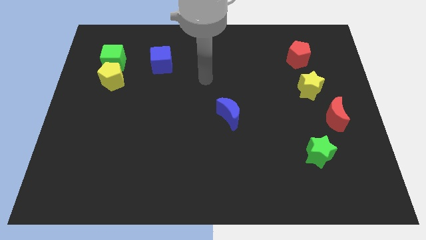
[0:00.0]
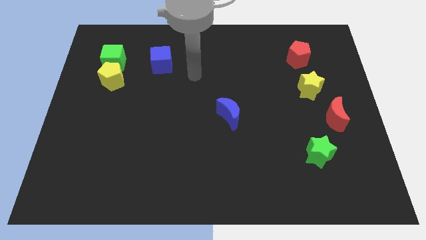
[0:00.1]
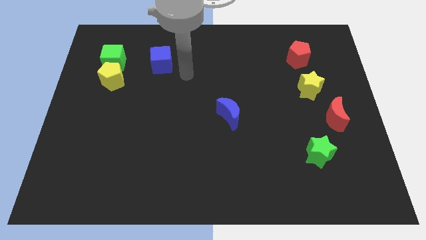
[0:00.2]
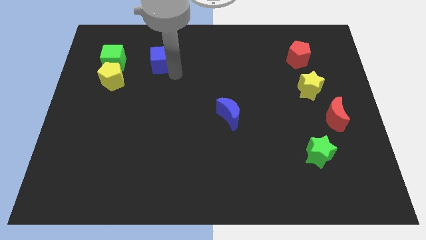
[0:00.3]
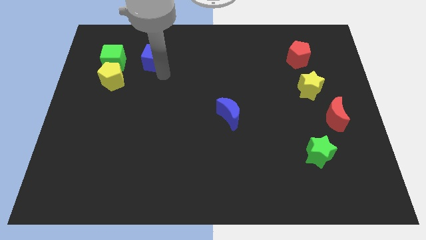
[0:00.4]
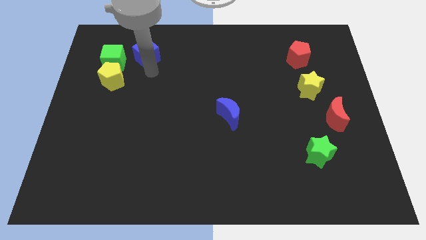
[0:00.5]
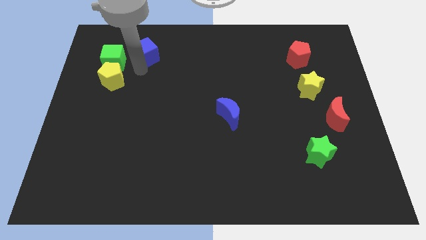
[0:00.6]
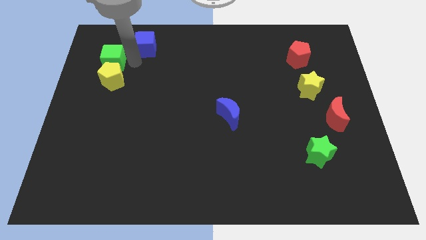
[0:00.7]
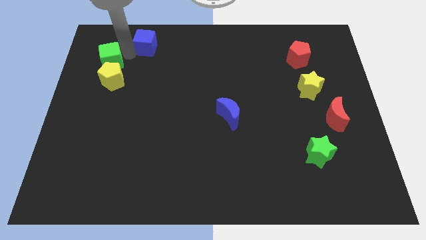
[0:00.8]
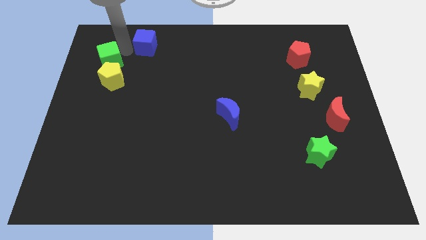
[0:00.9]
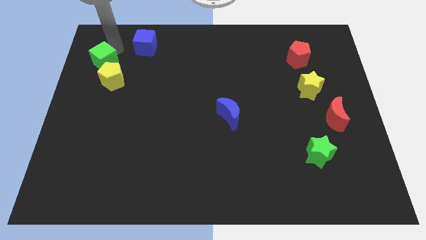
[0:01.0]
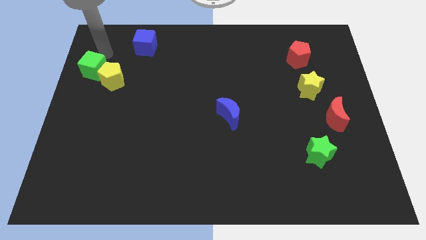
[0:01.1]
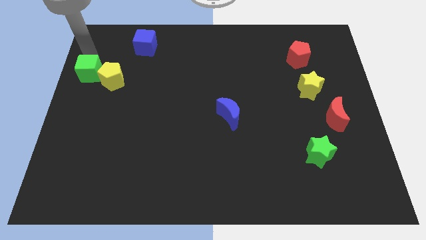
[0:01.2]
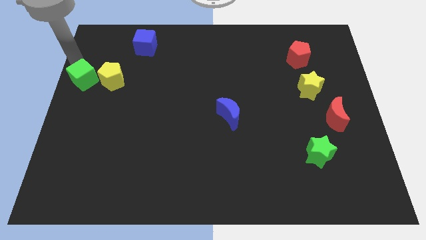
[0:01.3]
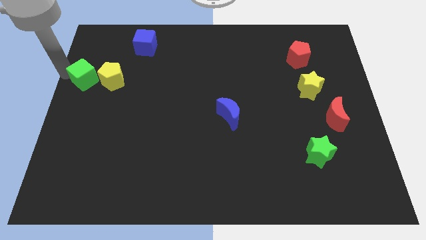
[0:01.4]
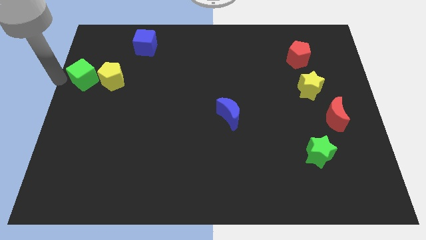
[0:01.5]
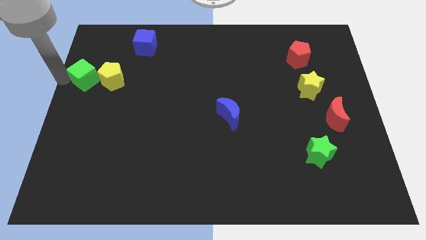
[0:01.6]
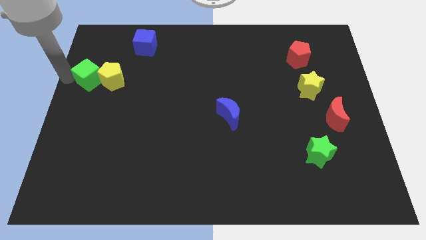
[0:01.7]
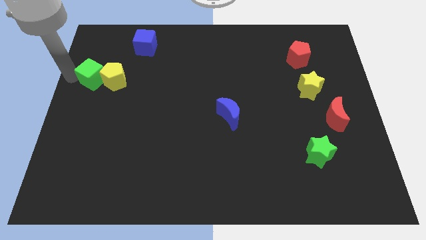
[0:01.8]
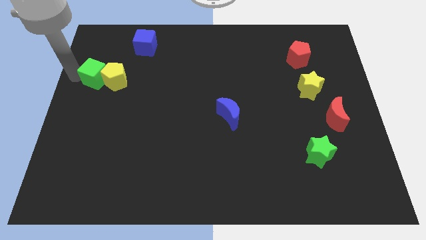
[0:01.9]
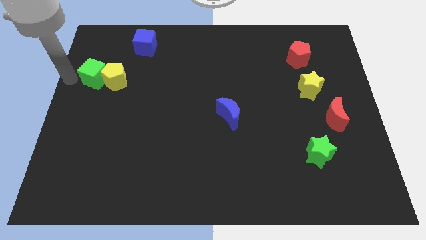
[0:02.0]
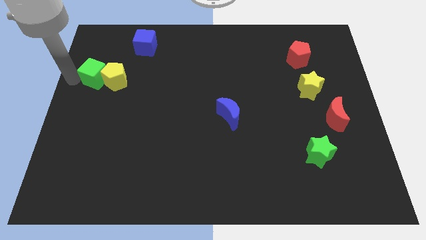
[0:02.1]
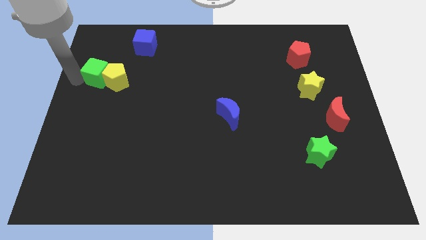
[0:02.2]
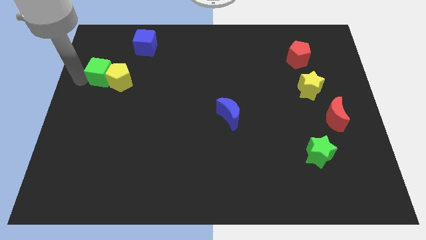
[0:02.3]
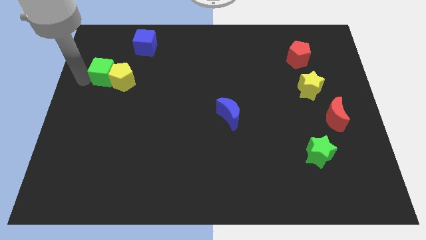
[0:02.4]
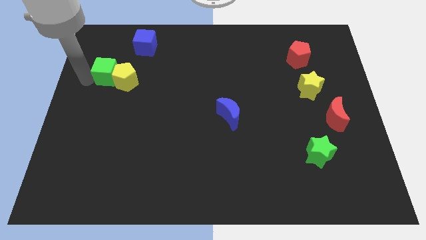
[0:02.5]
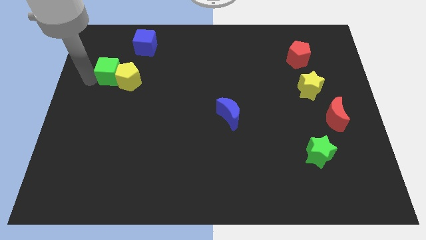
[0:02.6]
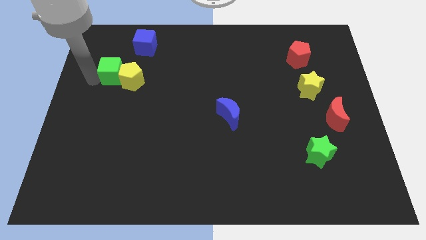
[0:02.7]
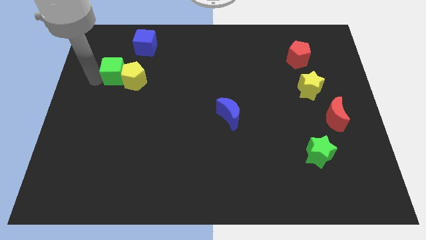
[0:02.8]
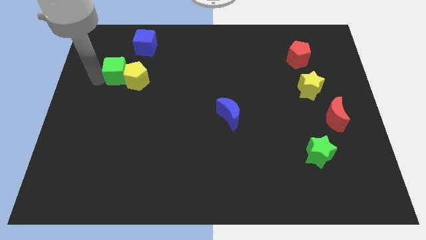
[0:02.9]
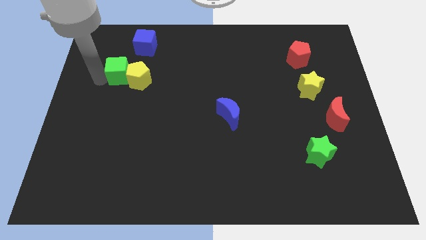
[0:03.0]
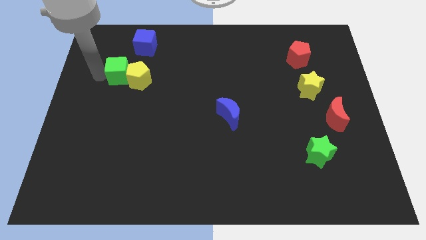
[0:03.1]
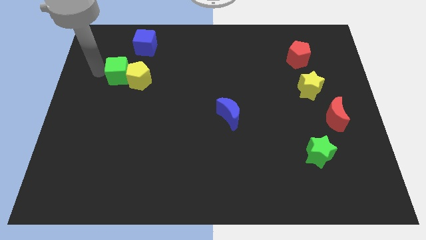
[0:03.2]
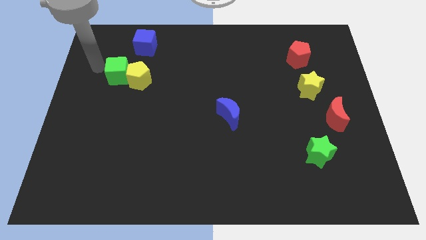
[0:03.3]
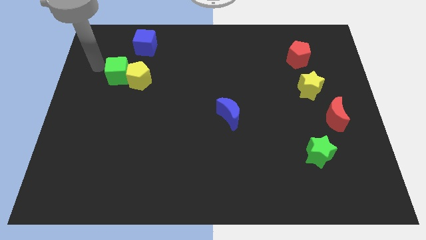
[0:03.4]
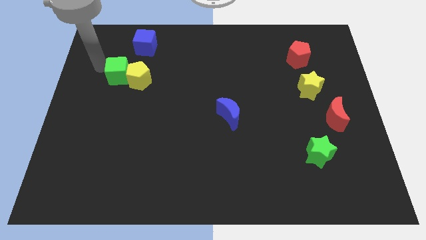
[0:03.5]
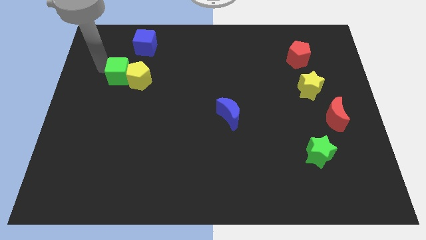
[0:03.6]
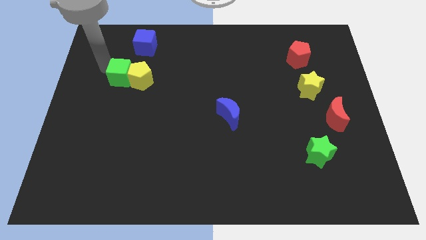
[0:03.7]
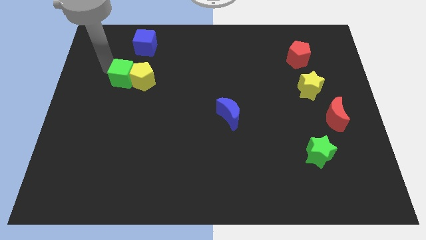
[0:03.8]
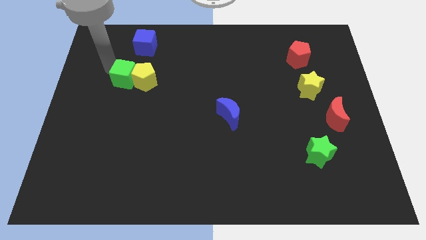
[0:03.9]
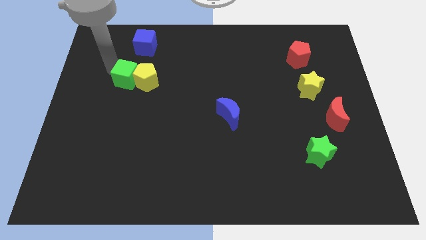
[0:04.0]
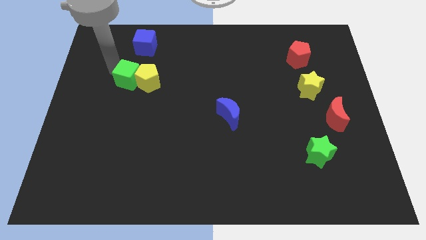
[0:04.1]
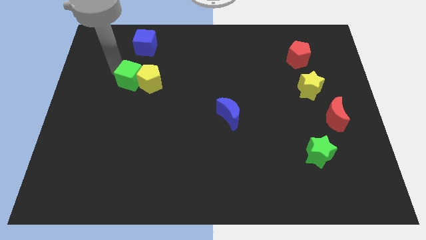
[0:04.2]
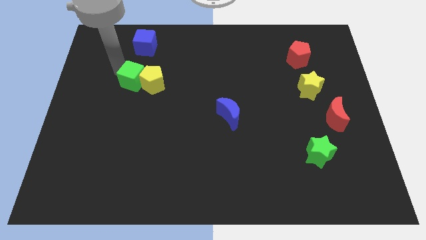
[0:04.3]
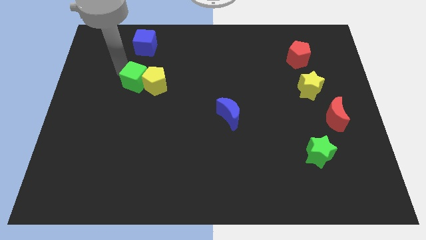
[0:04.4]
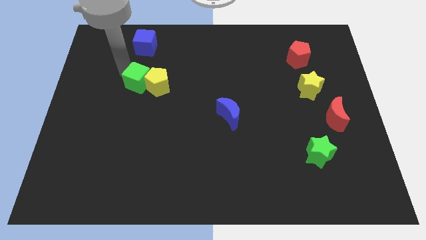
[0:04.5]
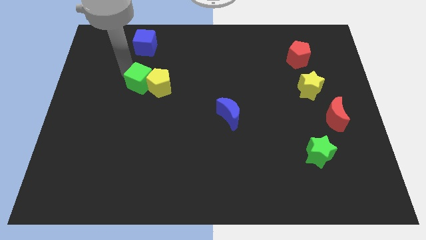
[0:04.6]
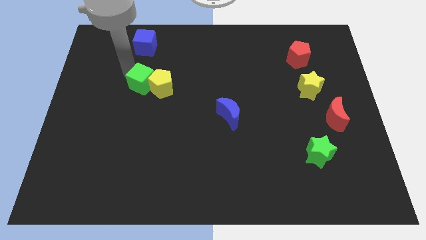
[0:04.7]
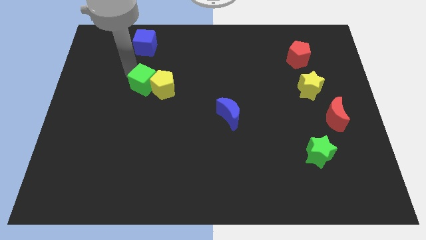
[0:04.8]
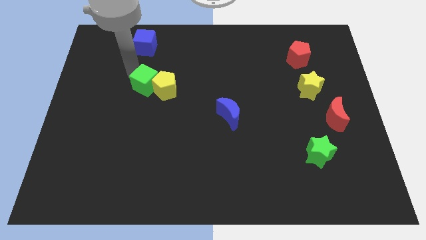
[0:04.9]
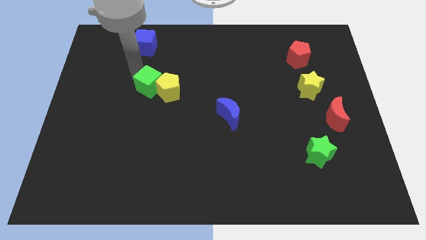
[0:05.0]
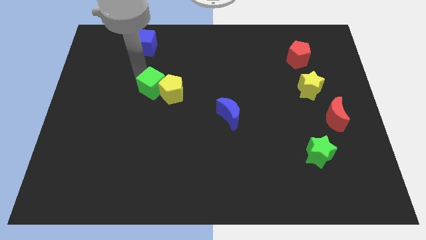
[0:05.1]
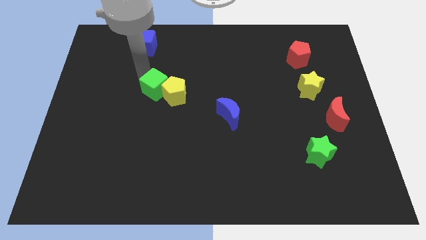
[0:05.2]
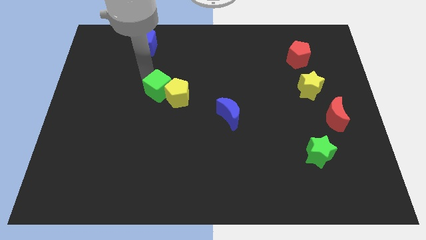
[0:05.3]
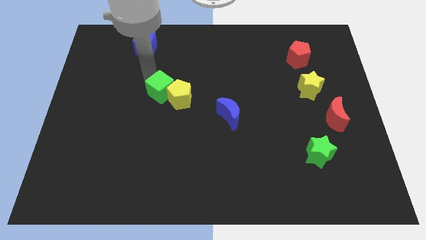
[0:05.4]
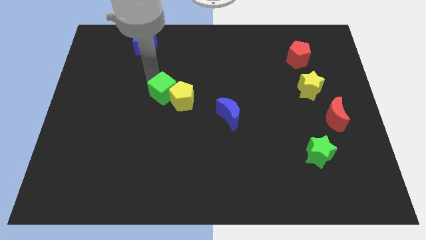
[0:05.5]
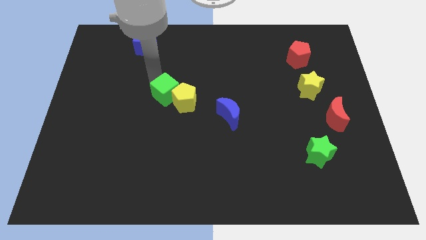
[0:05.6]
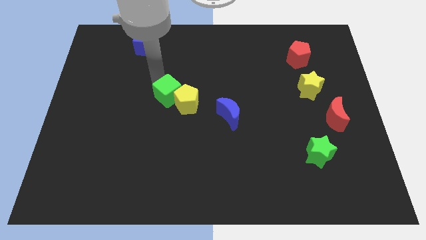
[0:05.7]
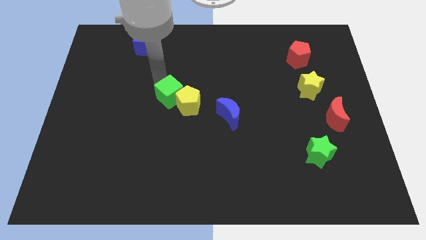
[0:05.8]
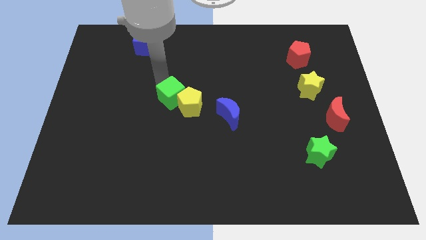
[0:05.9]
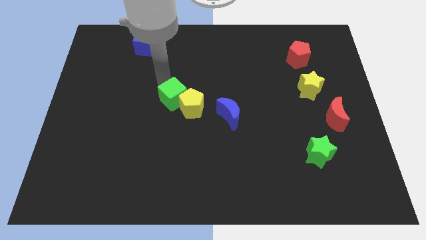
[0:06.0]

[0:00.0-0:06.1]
push the green cube down and to the right diagonally

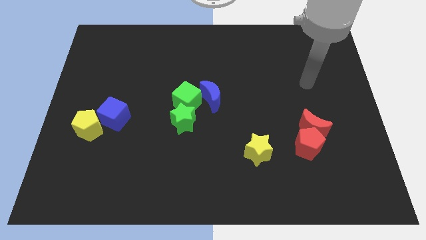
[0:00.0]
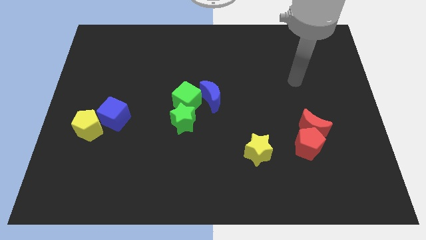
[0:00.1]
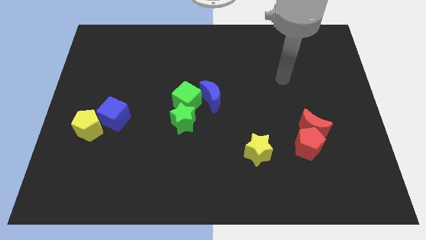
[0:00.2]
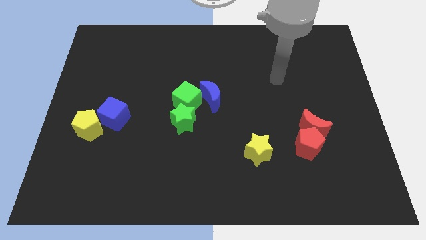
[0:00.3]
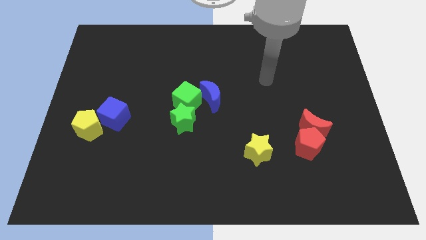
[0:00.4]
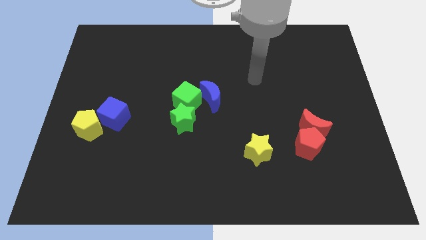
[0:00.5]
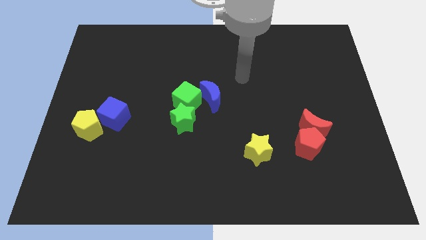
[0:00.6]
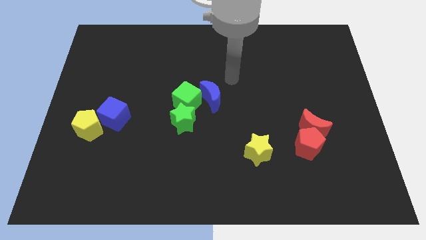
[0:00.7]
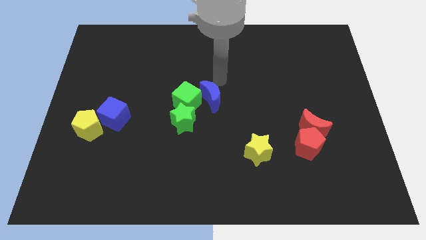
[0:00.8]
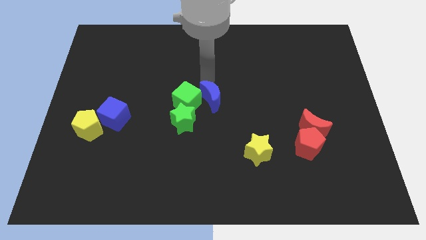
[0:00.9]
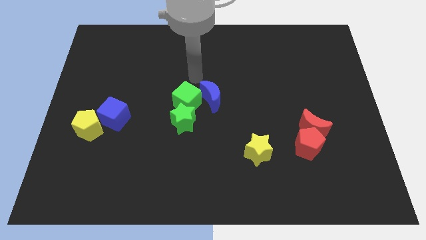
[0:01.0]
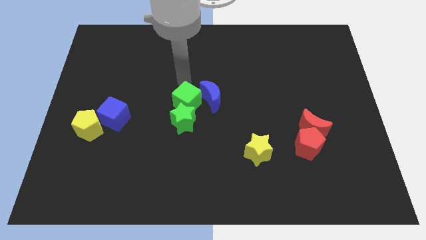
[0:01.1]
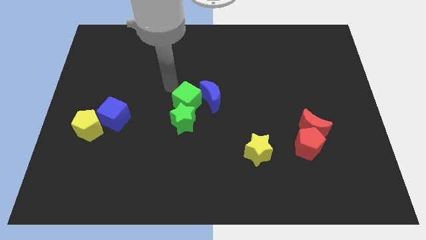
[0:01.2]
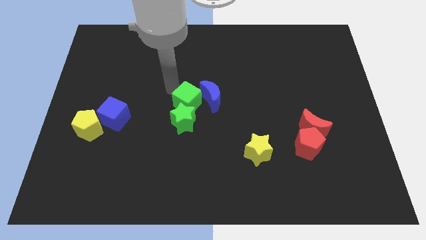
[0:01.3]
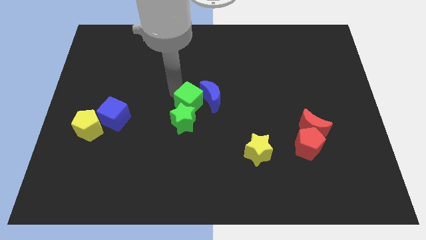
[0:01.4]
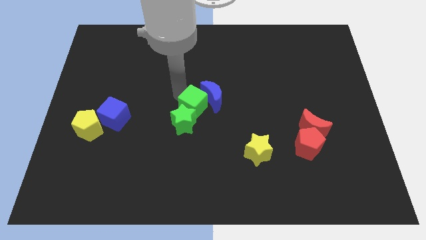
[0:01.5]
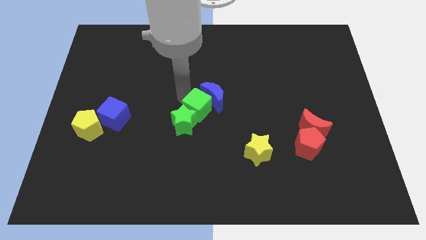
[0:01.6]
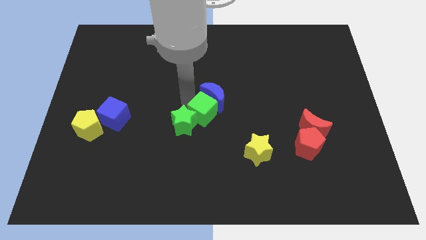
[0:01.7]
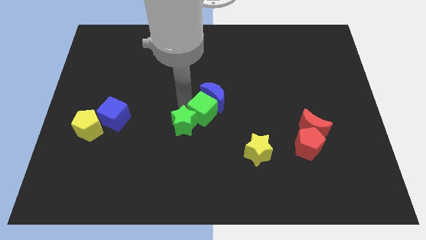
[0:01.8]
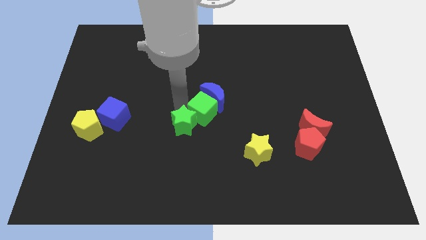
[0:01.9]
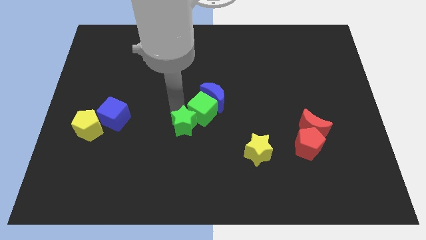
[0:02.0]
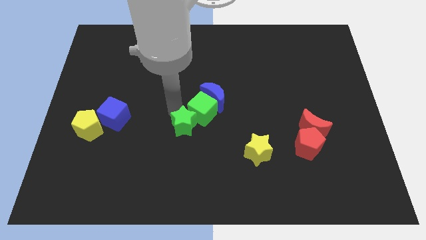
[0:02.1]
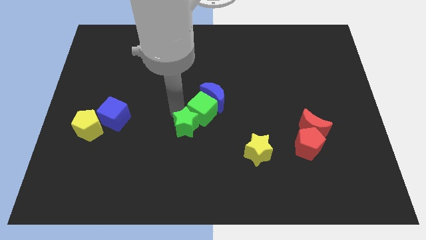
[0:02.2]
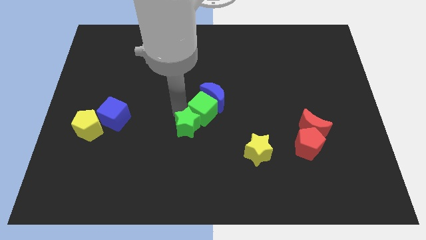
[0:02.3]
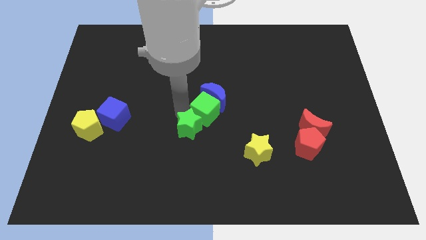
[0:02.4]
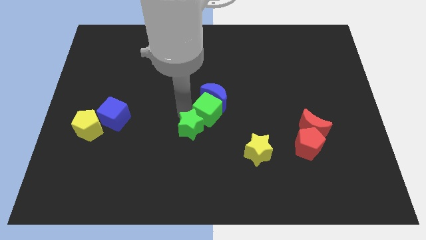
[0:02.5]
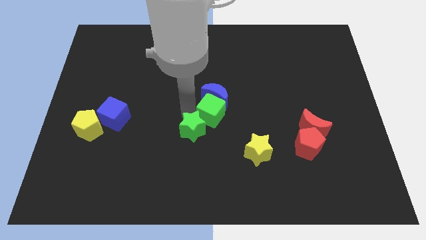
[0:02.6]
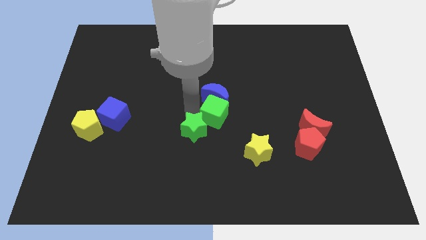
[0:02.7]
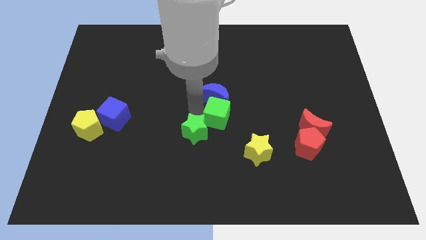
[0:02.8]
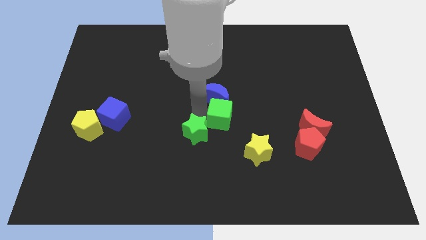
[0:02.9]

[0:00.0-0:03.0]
slightly push the green cube to the right
